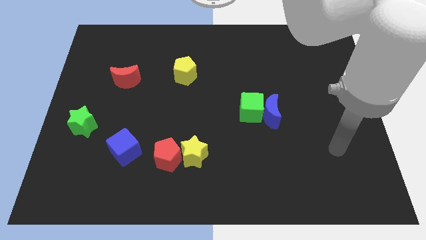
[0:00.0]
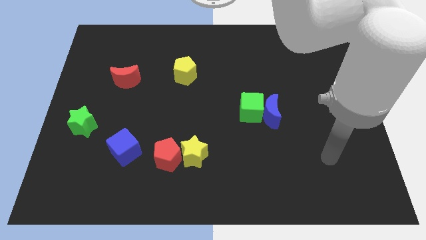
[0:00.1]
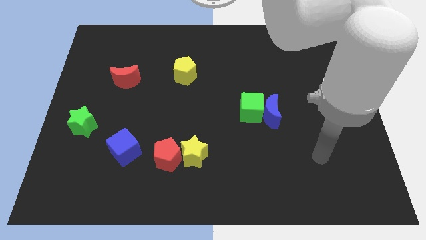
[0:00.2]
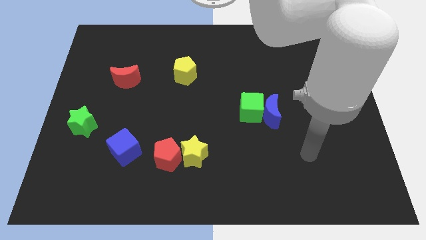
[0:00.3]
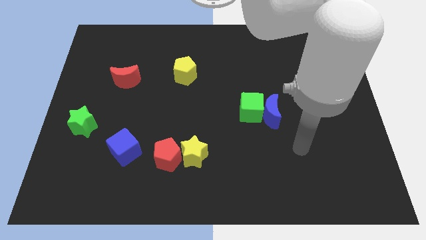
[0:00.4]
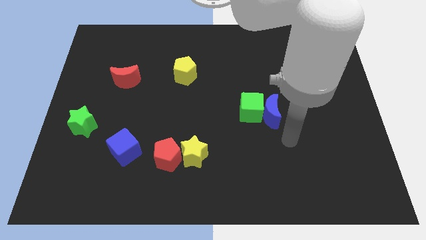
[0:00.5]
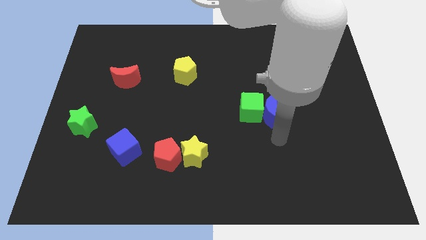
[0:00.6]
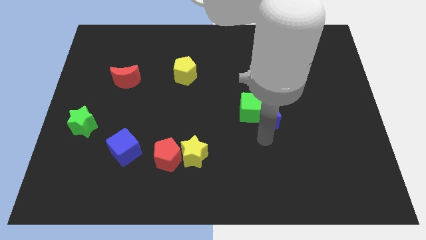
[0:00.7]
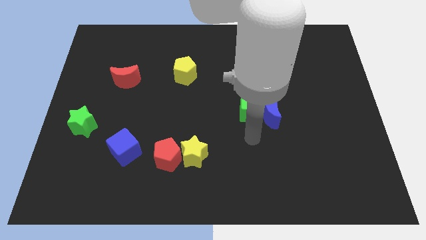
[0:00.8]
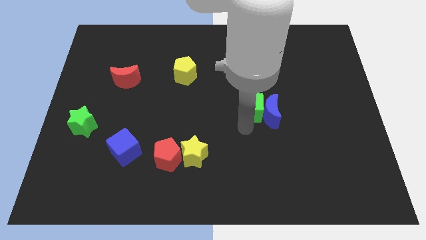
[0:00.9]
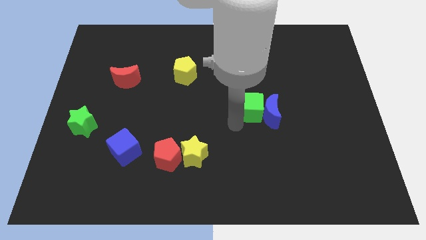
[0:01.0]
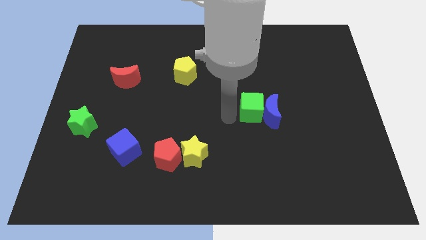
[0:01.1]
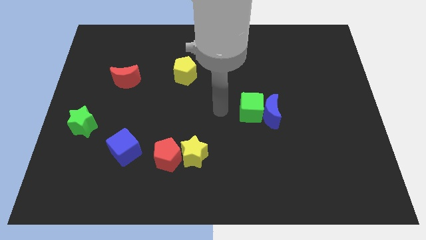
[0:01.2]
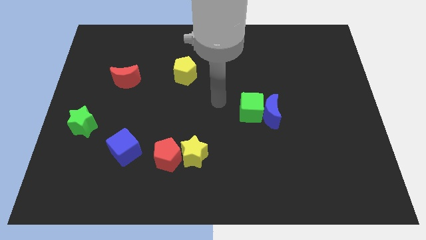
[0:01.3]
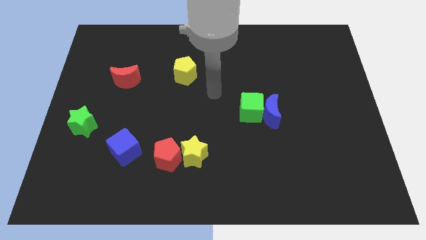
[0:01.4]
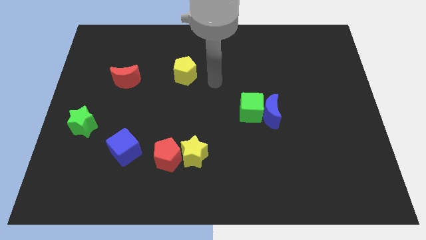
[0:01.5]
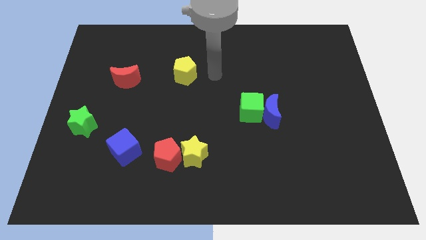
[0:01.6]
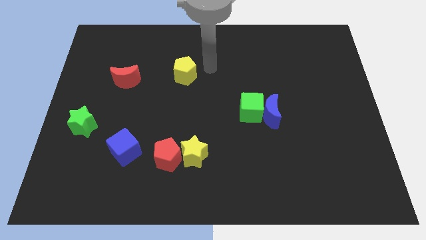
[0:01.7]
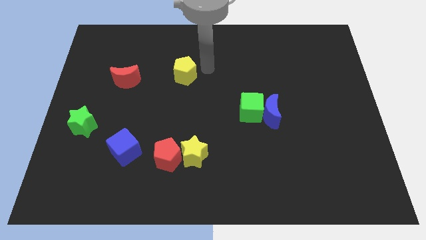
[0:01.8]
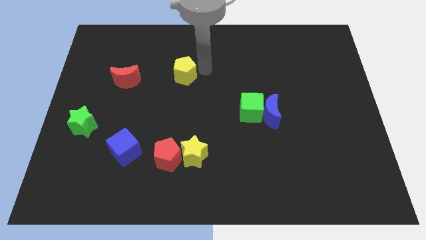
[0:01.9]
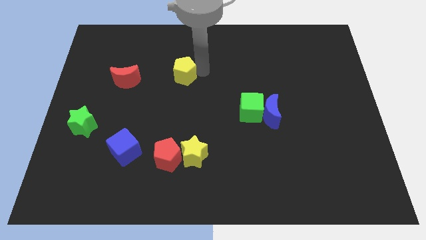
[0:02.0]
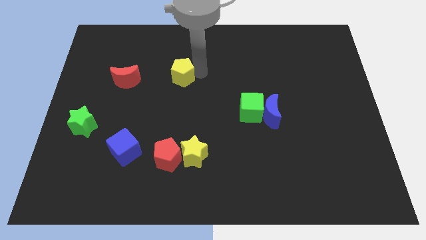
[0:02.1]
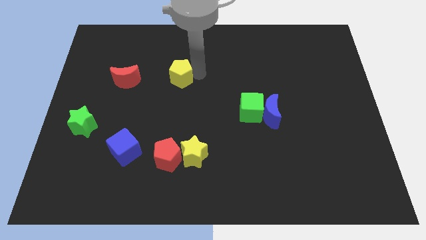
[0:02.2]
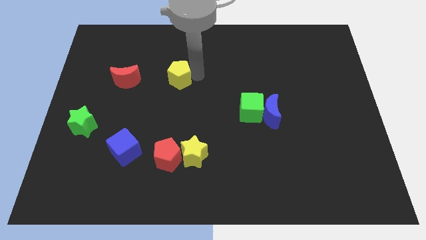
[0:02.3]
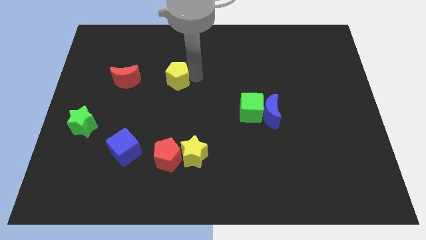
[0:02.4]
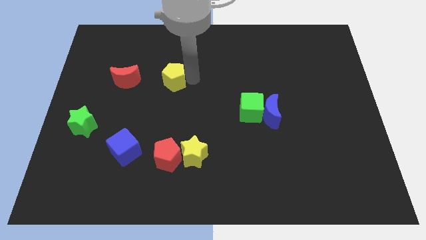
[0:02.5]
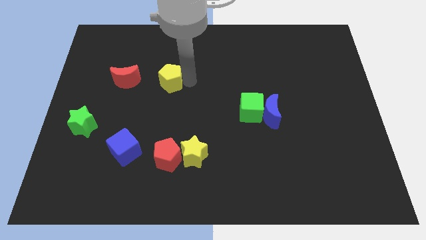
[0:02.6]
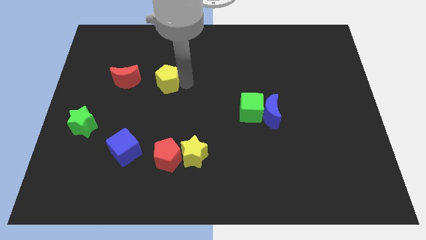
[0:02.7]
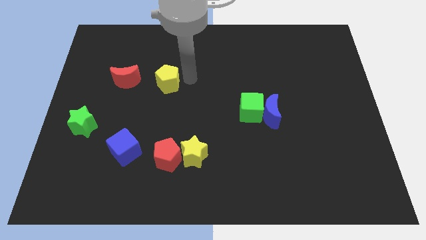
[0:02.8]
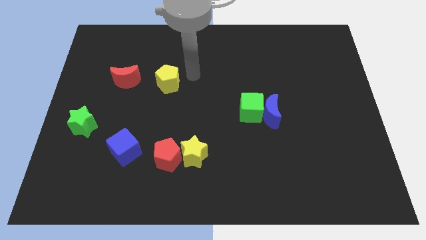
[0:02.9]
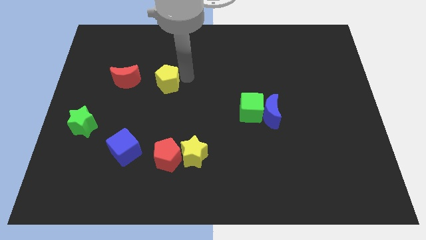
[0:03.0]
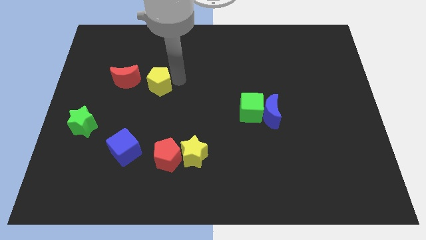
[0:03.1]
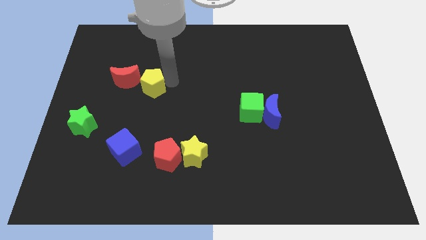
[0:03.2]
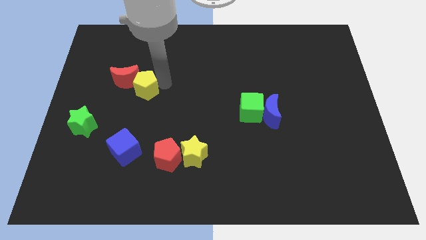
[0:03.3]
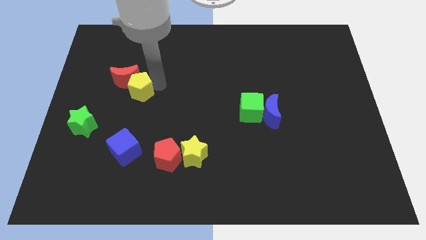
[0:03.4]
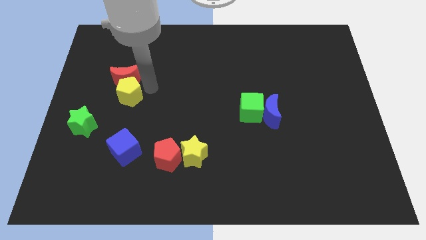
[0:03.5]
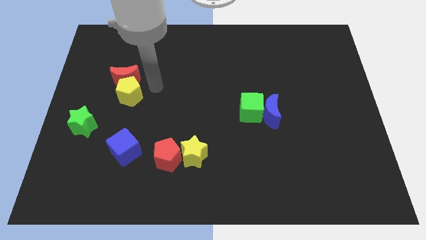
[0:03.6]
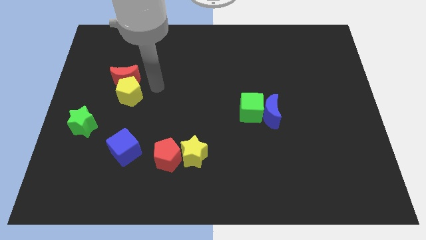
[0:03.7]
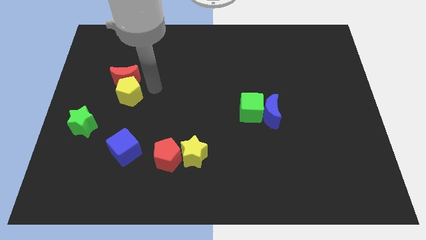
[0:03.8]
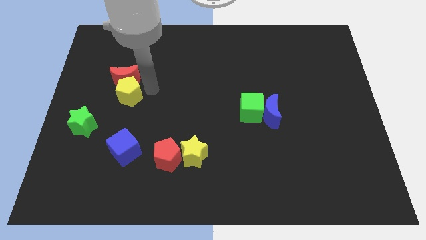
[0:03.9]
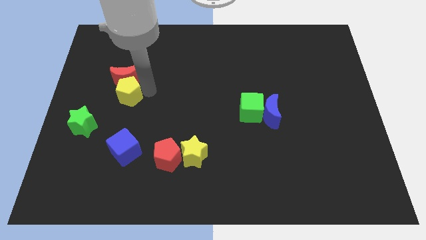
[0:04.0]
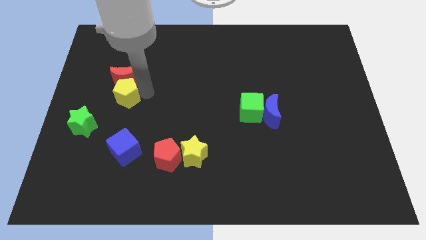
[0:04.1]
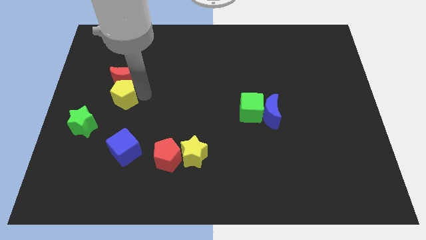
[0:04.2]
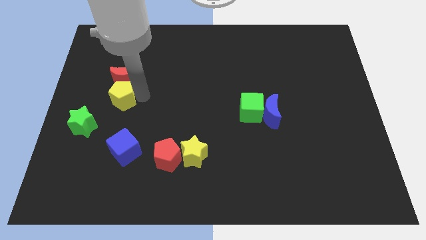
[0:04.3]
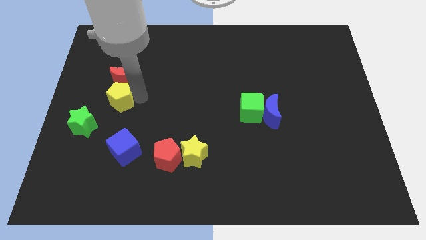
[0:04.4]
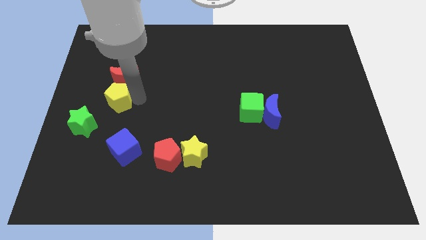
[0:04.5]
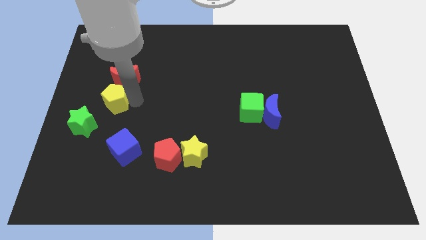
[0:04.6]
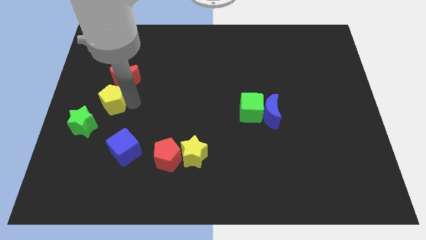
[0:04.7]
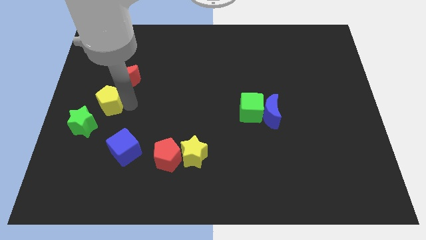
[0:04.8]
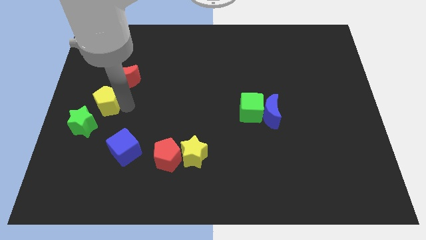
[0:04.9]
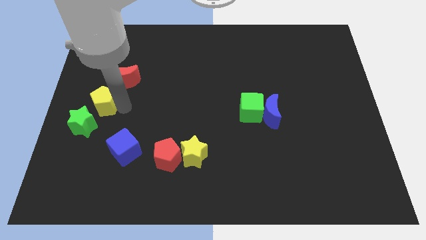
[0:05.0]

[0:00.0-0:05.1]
put the yellow pentagon to the center left

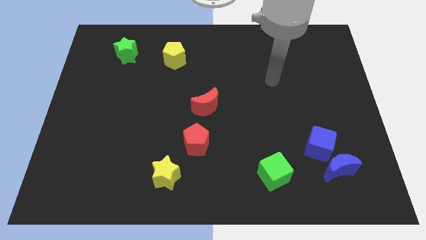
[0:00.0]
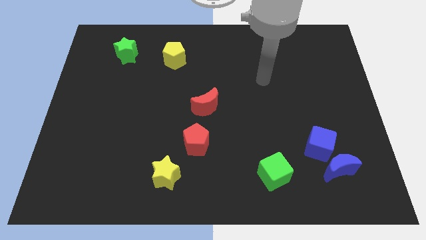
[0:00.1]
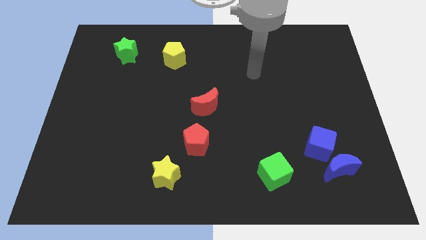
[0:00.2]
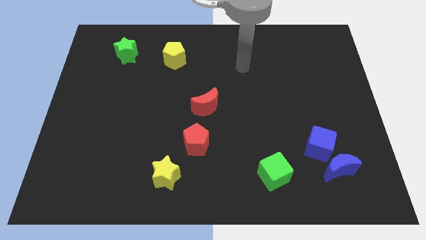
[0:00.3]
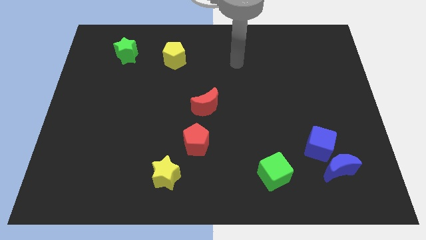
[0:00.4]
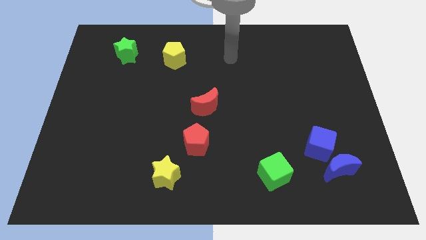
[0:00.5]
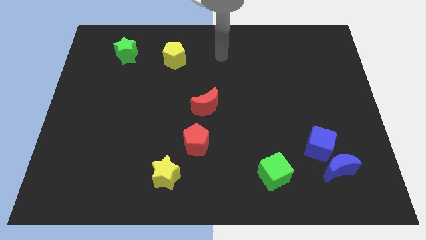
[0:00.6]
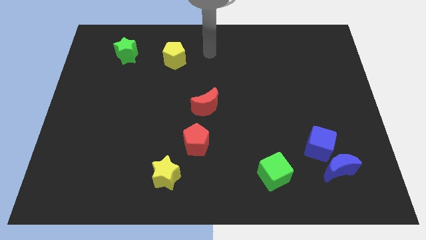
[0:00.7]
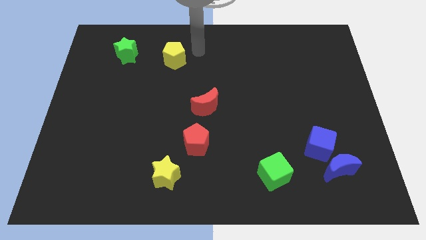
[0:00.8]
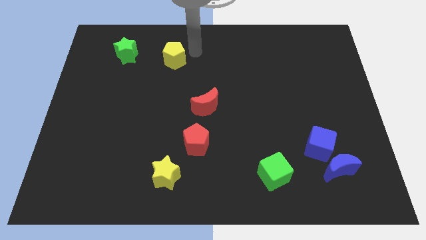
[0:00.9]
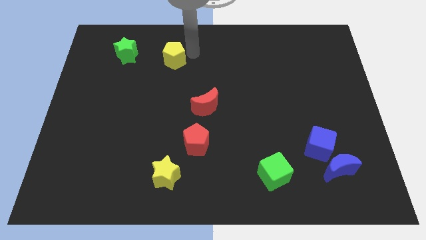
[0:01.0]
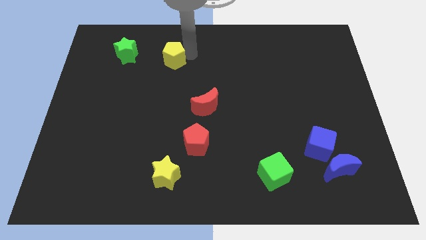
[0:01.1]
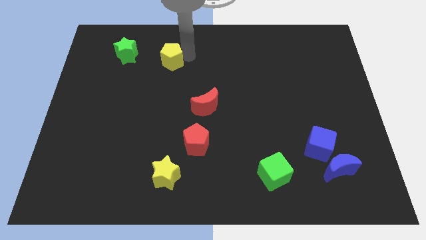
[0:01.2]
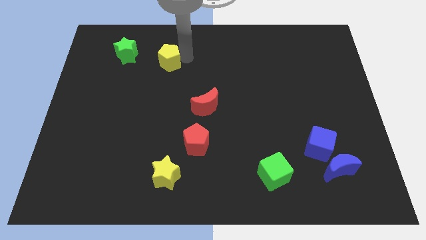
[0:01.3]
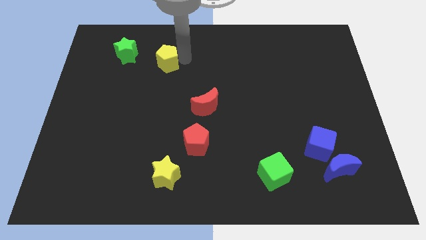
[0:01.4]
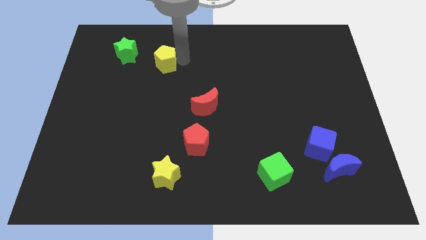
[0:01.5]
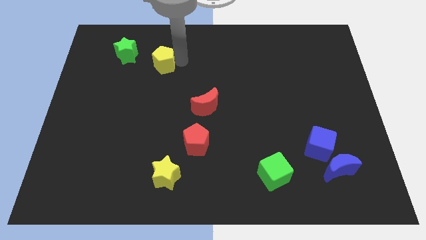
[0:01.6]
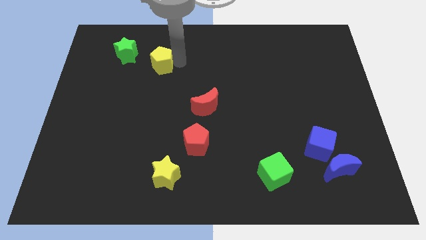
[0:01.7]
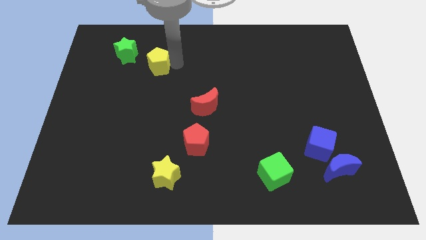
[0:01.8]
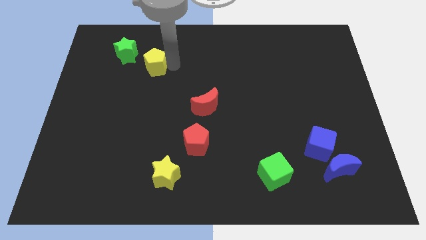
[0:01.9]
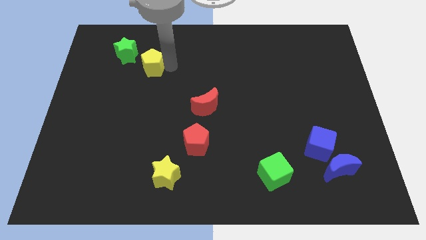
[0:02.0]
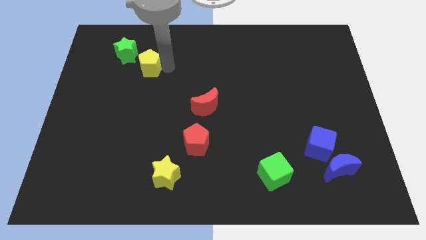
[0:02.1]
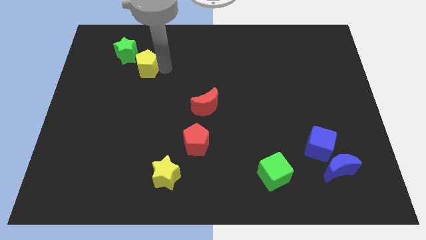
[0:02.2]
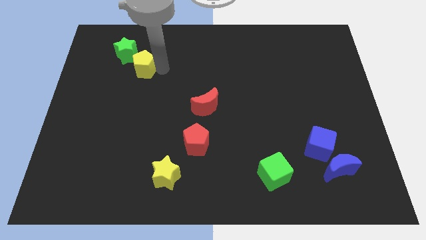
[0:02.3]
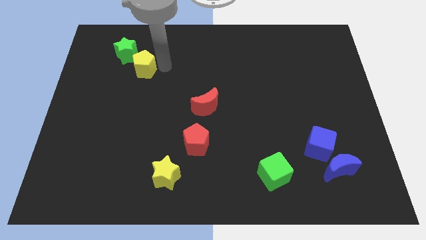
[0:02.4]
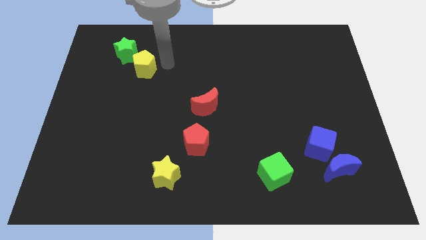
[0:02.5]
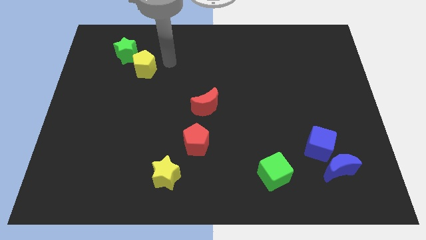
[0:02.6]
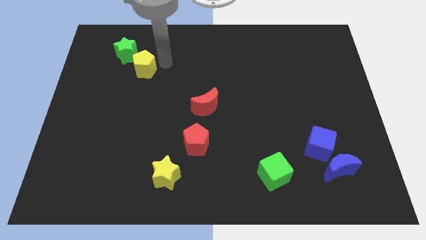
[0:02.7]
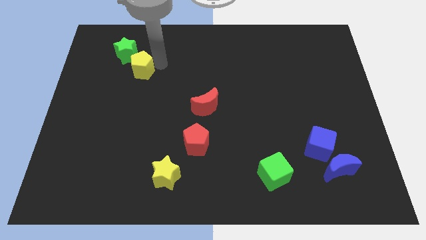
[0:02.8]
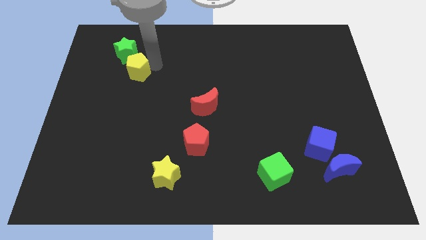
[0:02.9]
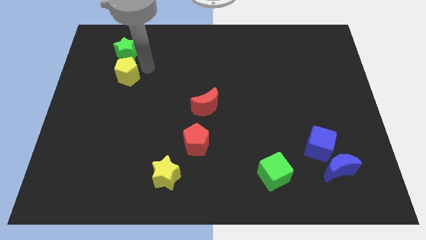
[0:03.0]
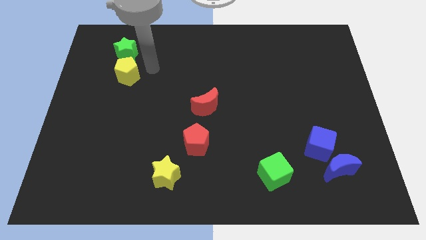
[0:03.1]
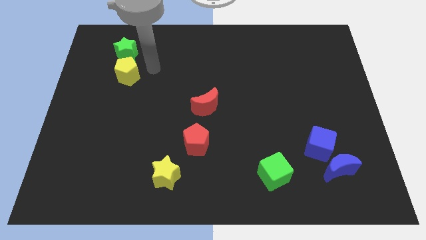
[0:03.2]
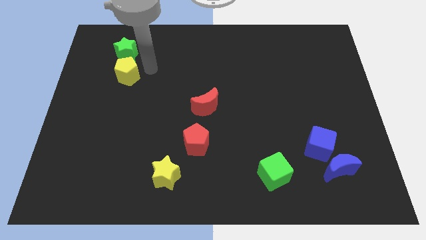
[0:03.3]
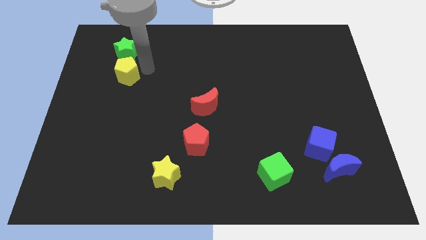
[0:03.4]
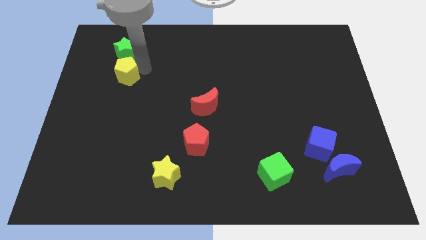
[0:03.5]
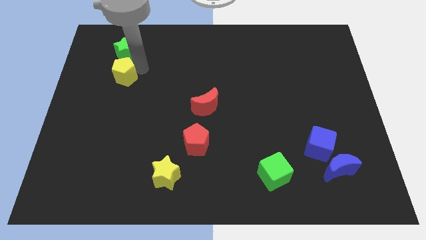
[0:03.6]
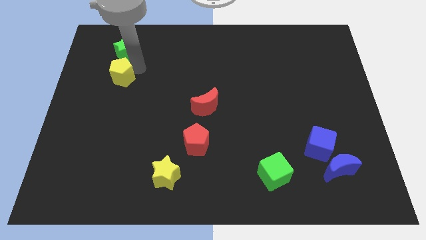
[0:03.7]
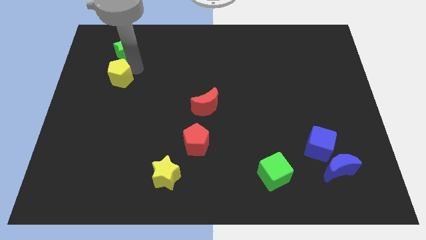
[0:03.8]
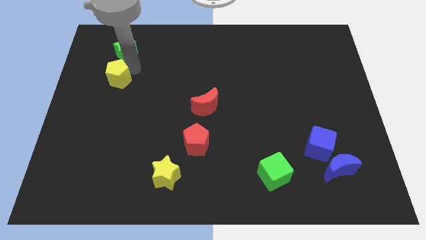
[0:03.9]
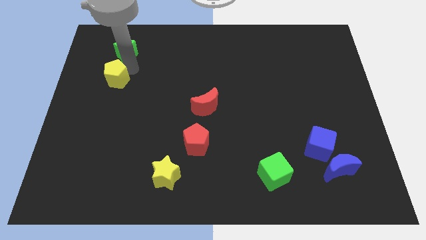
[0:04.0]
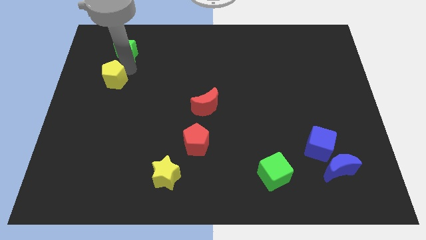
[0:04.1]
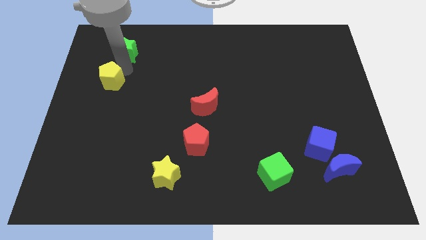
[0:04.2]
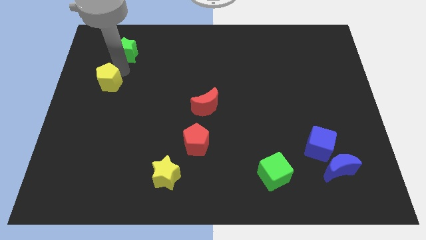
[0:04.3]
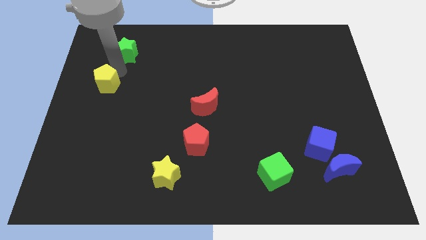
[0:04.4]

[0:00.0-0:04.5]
slide the yellow pentagon to the center left
